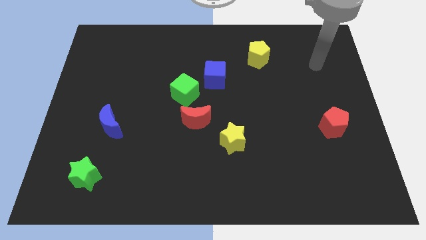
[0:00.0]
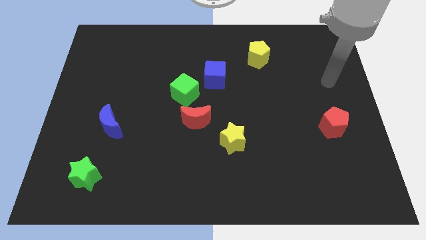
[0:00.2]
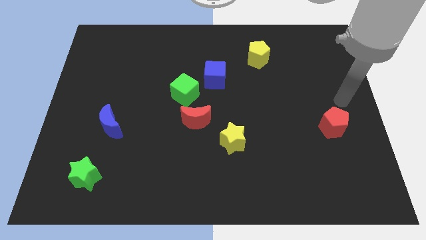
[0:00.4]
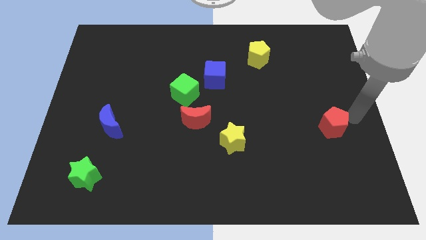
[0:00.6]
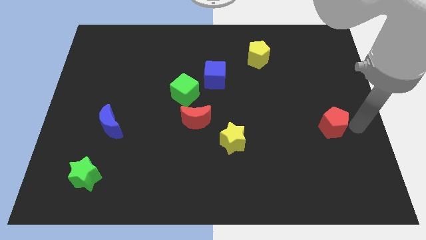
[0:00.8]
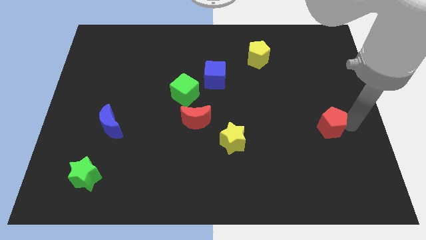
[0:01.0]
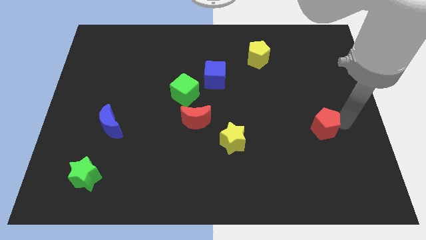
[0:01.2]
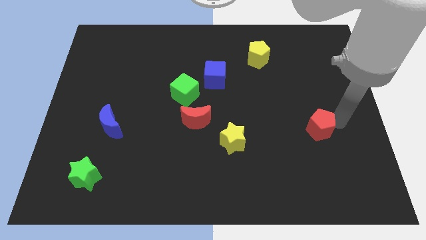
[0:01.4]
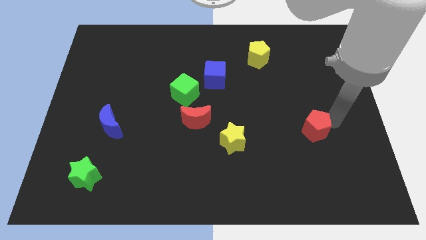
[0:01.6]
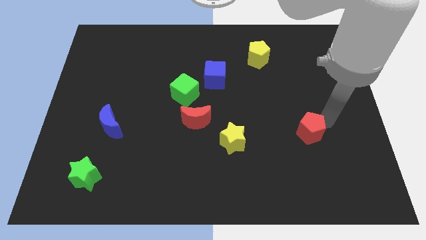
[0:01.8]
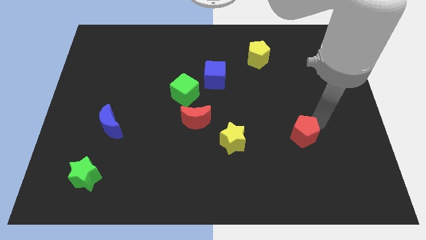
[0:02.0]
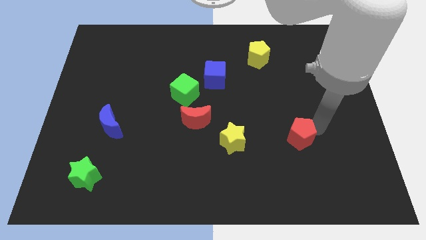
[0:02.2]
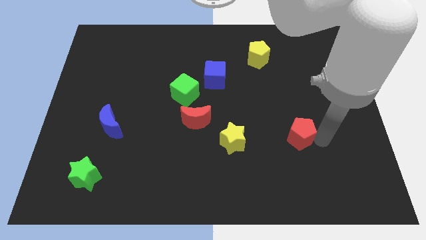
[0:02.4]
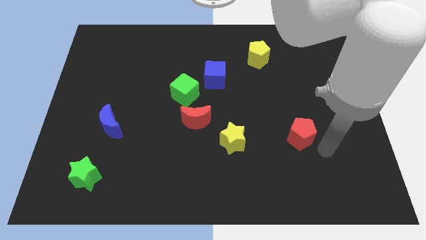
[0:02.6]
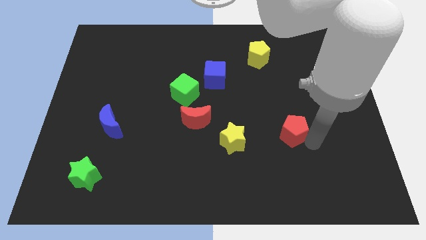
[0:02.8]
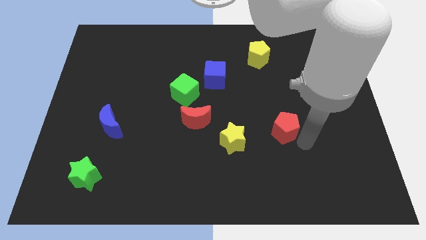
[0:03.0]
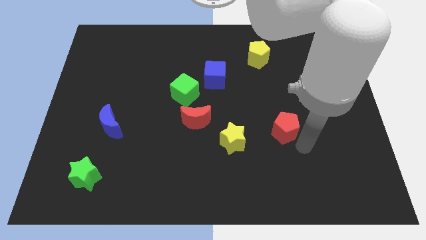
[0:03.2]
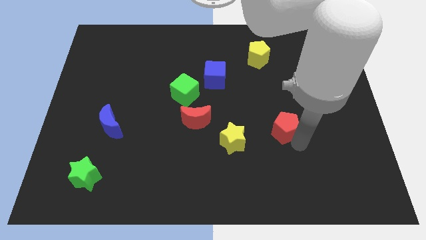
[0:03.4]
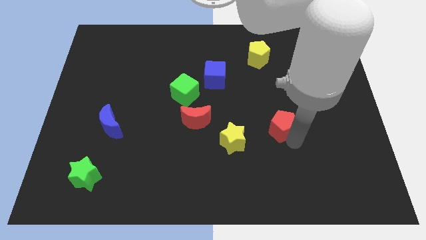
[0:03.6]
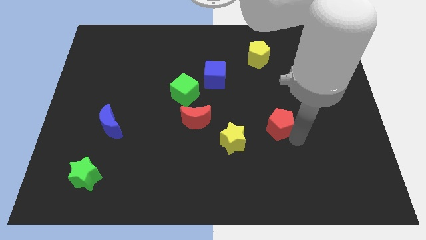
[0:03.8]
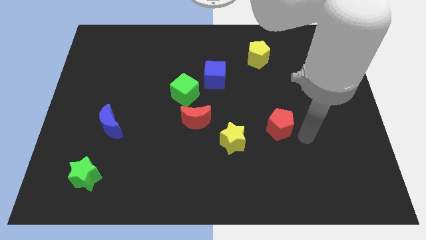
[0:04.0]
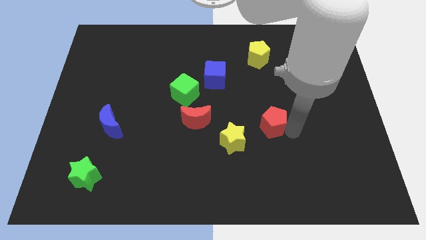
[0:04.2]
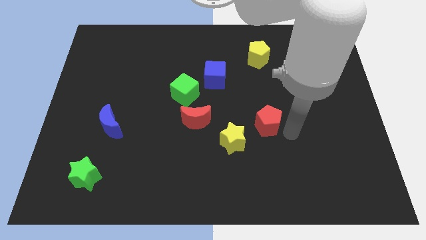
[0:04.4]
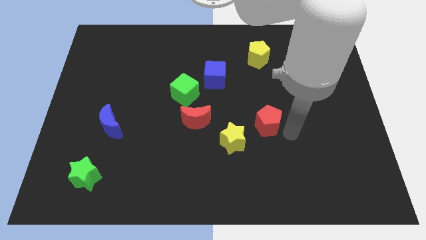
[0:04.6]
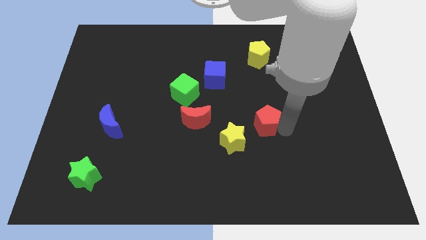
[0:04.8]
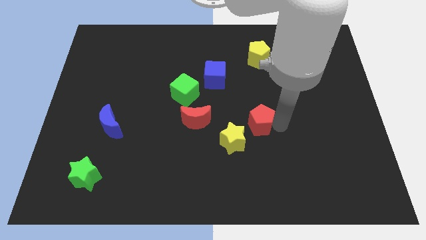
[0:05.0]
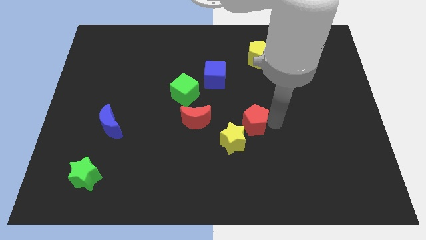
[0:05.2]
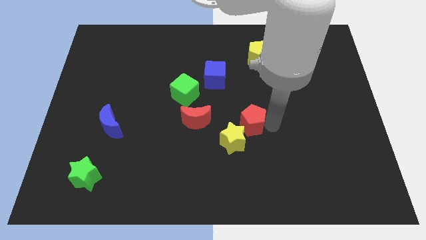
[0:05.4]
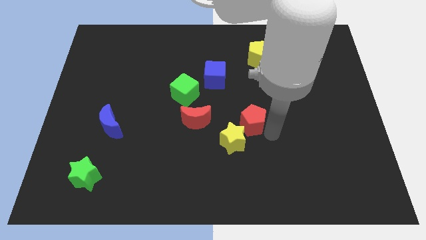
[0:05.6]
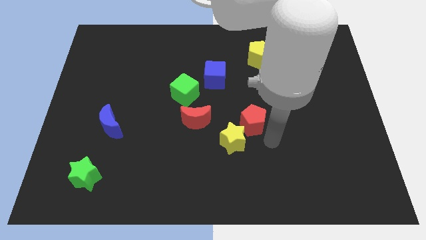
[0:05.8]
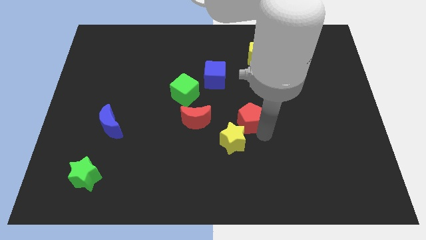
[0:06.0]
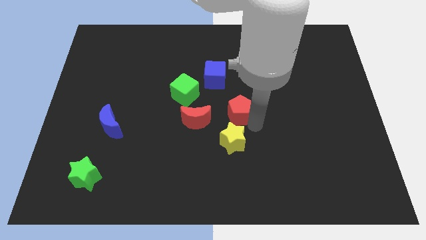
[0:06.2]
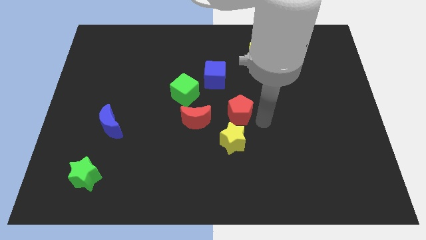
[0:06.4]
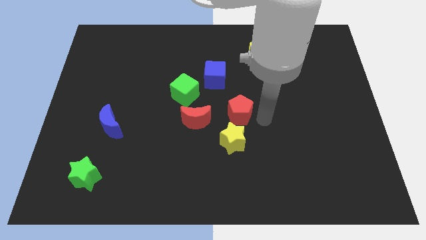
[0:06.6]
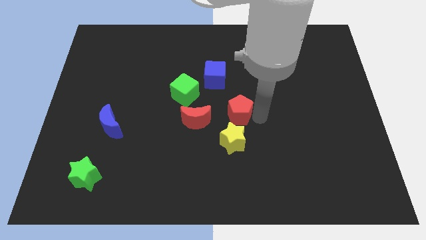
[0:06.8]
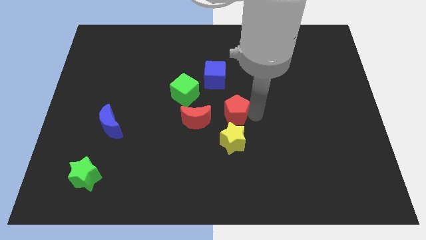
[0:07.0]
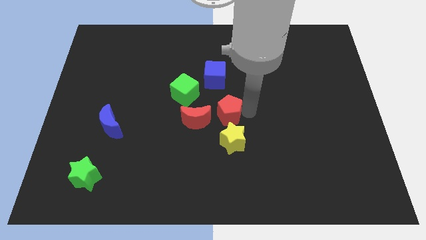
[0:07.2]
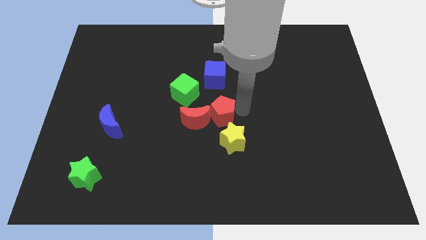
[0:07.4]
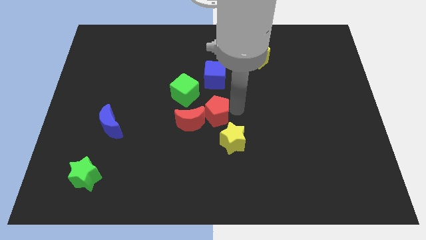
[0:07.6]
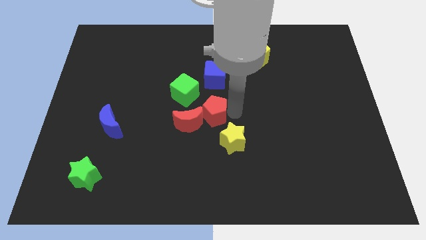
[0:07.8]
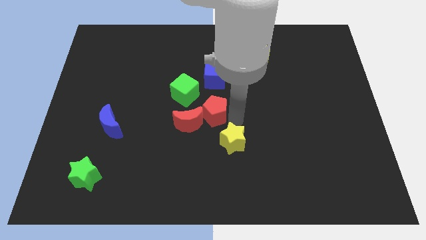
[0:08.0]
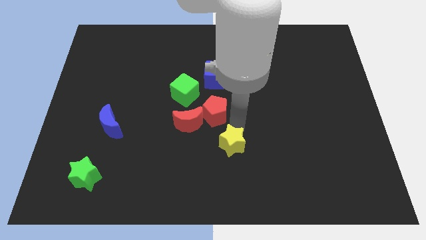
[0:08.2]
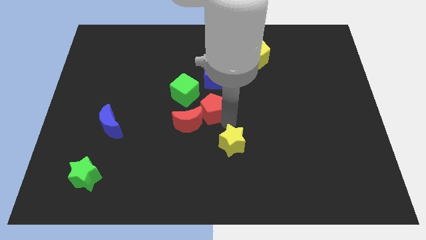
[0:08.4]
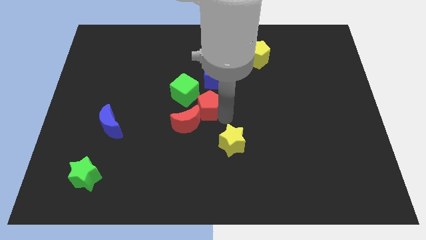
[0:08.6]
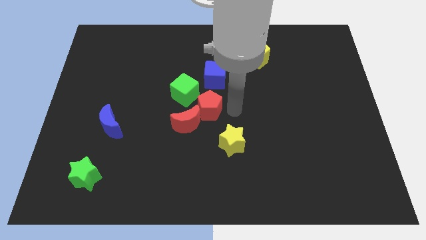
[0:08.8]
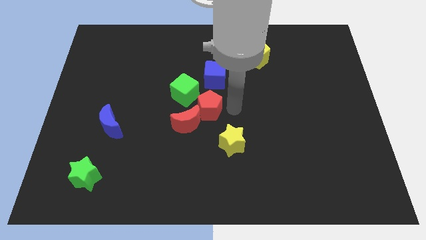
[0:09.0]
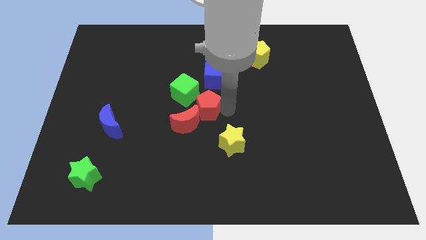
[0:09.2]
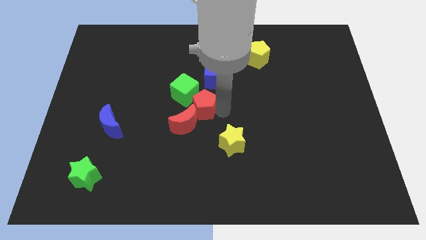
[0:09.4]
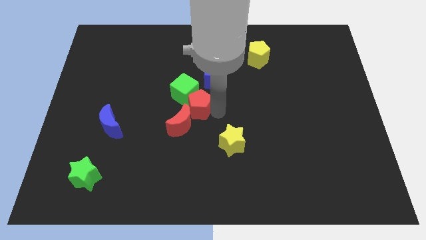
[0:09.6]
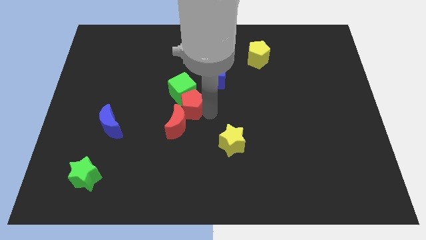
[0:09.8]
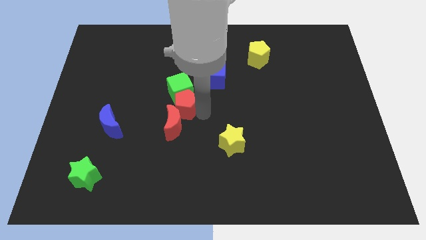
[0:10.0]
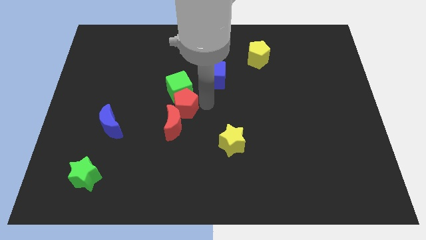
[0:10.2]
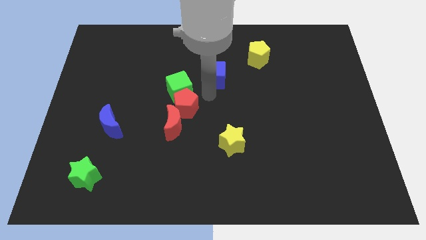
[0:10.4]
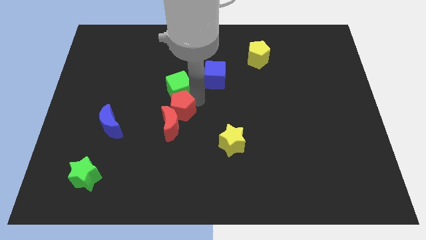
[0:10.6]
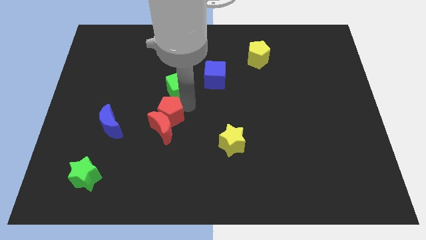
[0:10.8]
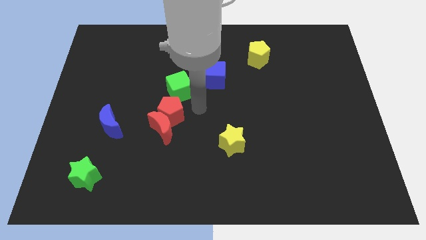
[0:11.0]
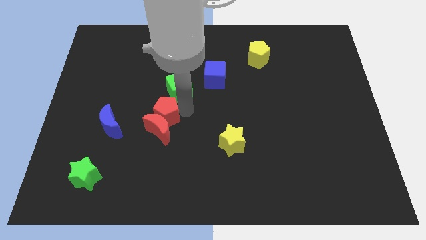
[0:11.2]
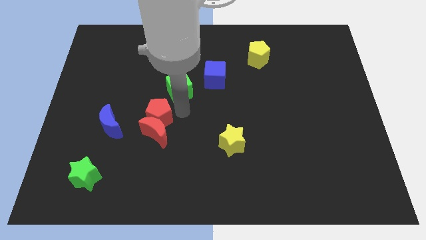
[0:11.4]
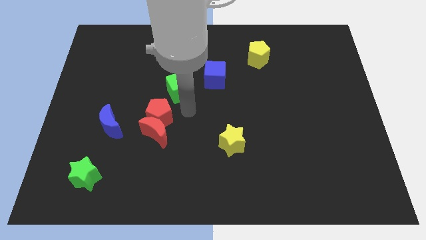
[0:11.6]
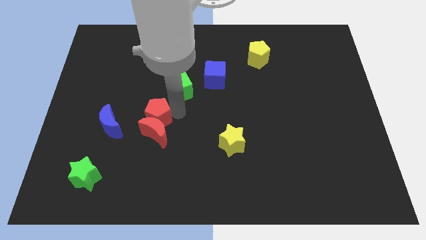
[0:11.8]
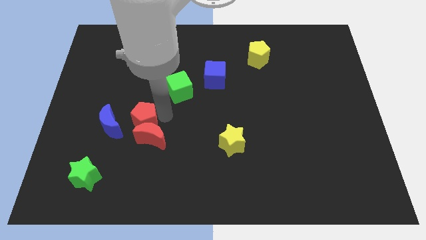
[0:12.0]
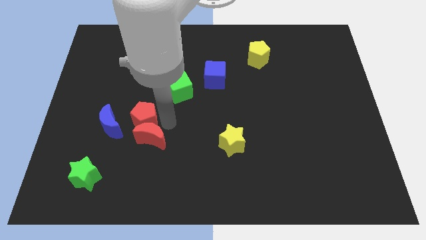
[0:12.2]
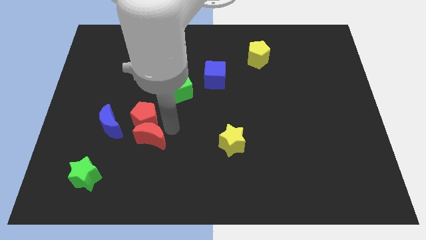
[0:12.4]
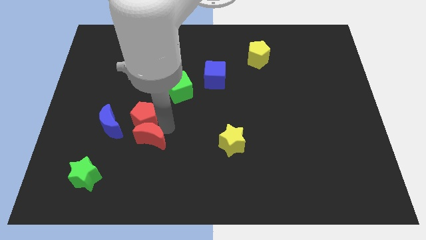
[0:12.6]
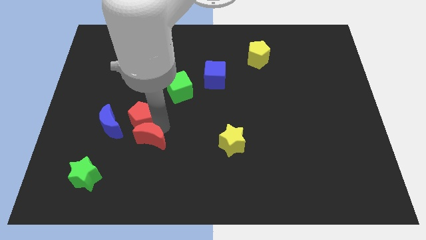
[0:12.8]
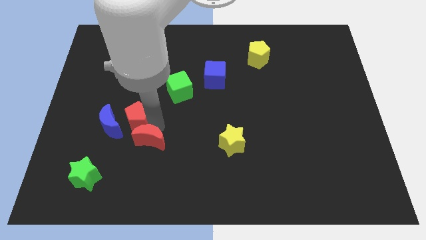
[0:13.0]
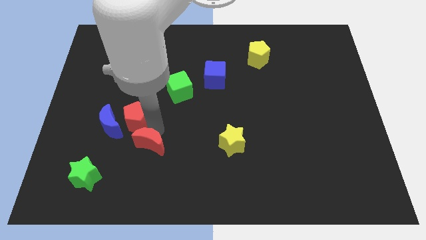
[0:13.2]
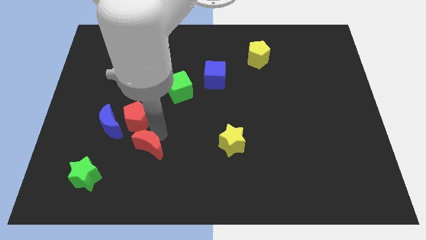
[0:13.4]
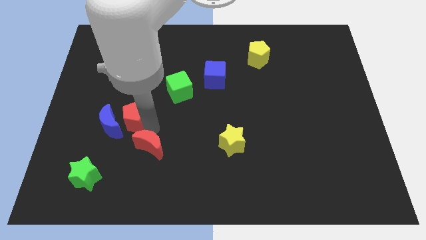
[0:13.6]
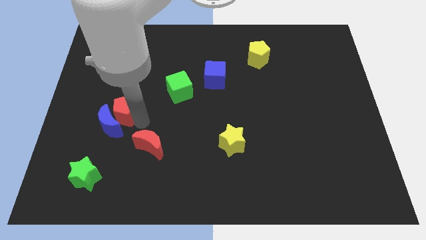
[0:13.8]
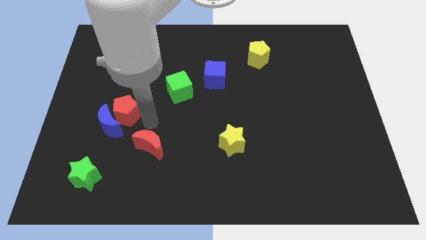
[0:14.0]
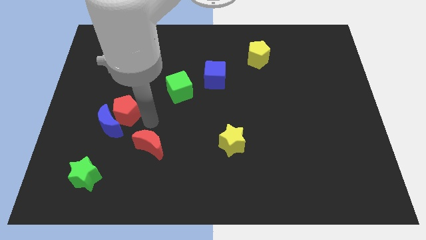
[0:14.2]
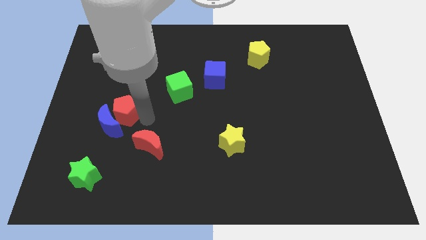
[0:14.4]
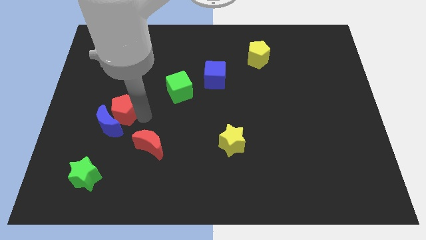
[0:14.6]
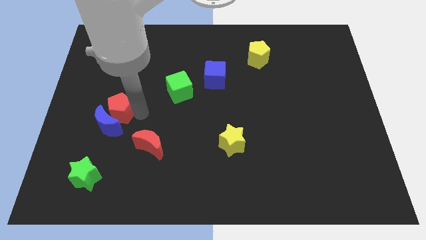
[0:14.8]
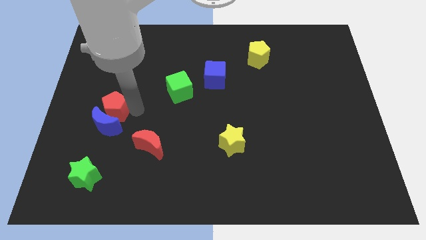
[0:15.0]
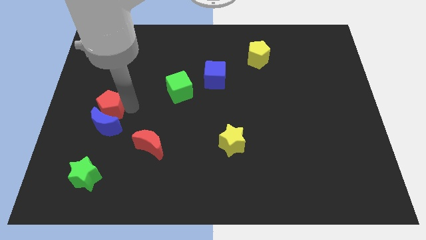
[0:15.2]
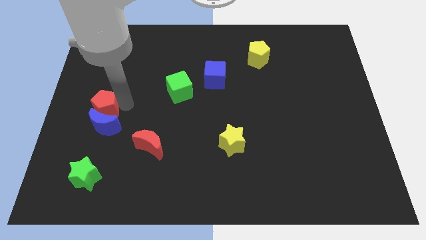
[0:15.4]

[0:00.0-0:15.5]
move the red pentagon to the center left
